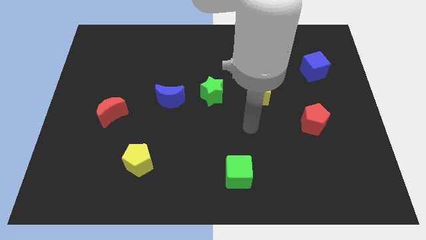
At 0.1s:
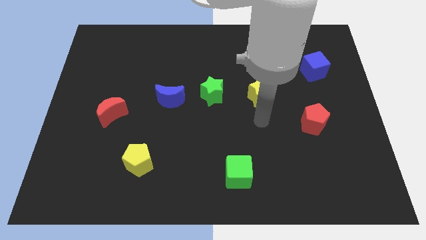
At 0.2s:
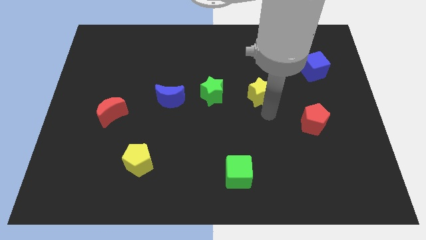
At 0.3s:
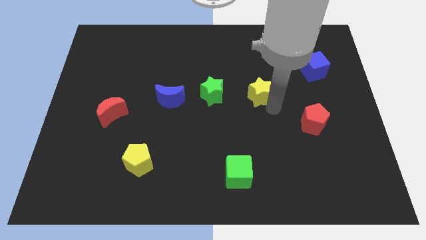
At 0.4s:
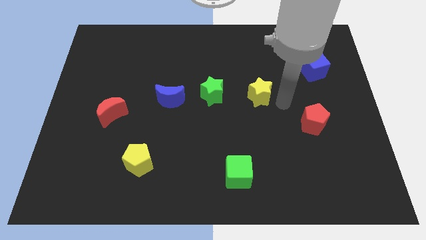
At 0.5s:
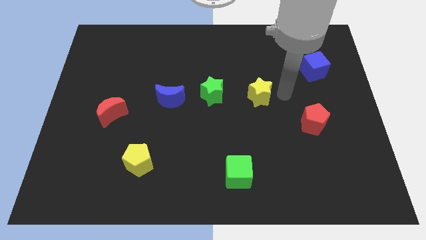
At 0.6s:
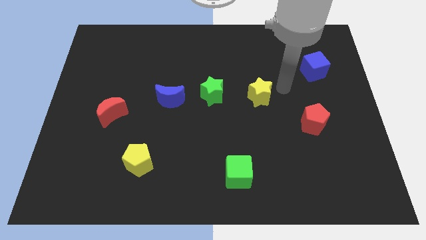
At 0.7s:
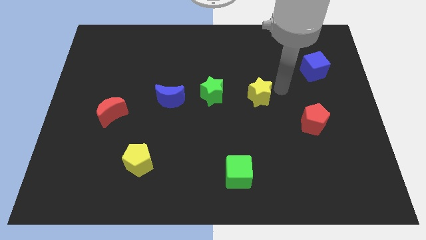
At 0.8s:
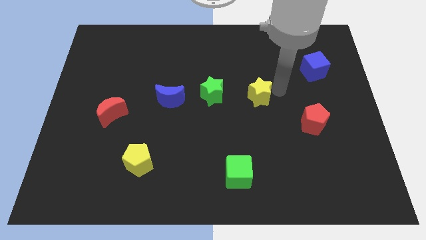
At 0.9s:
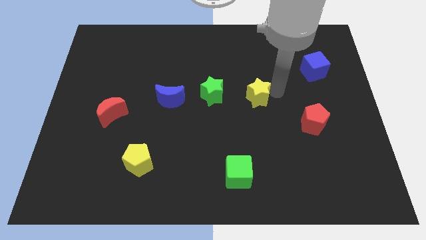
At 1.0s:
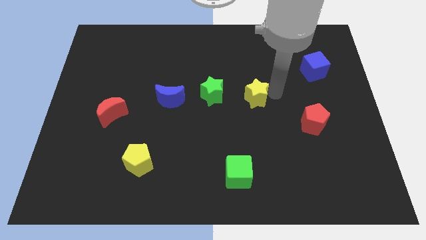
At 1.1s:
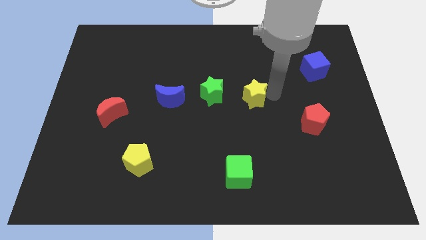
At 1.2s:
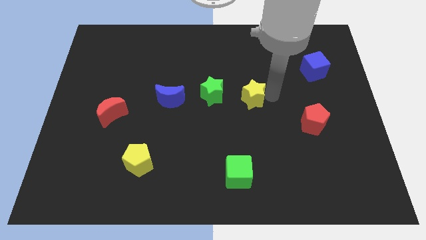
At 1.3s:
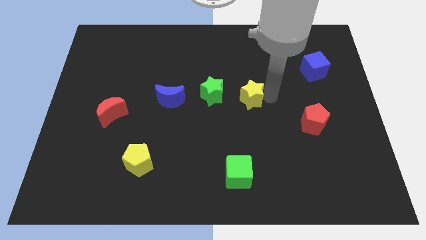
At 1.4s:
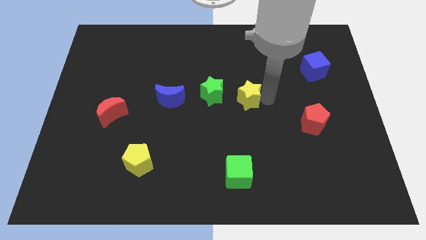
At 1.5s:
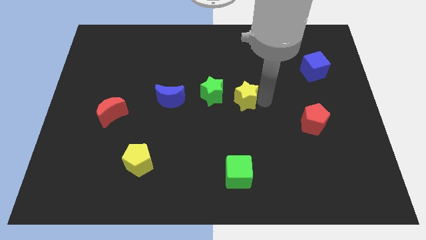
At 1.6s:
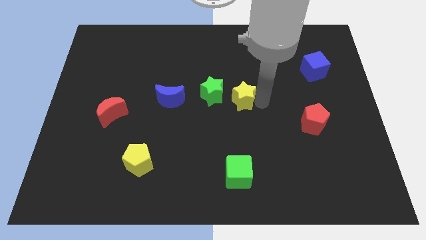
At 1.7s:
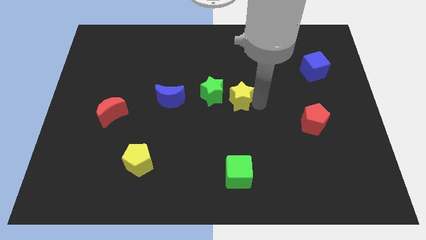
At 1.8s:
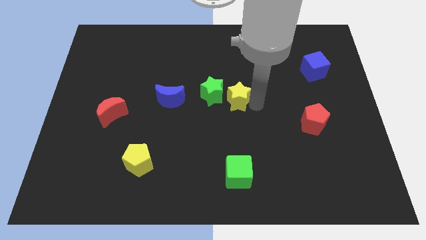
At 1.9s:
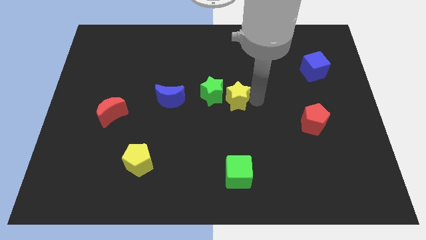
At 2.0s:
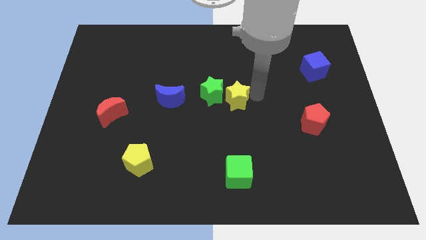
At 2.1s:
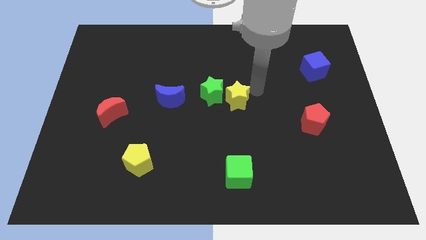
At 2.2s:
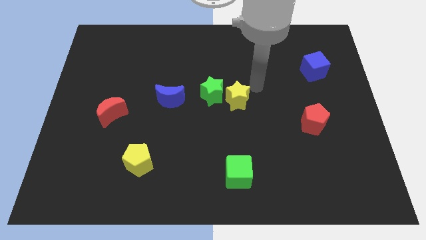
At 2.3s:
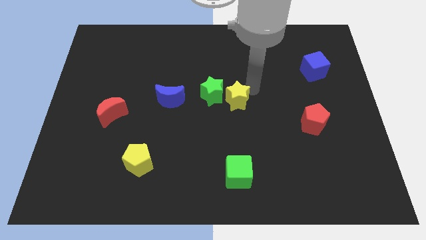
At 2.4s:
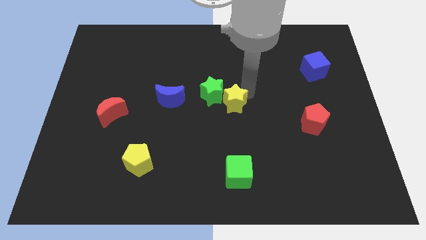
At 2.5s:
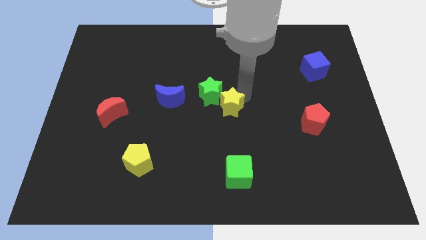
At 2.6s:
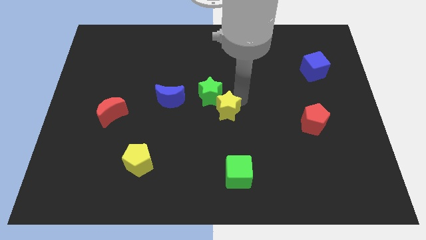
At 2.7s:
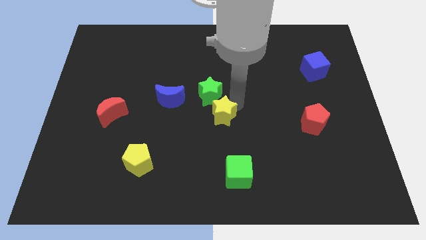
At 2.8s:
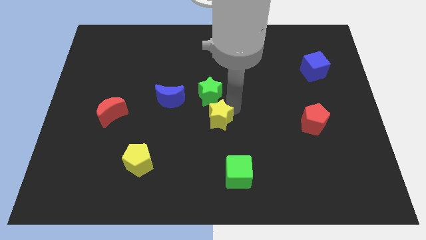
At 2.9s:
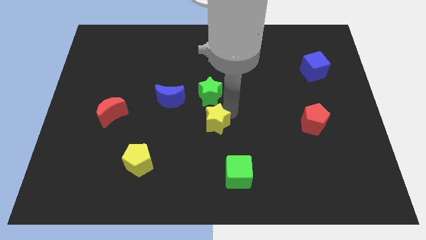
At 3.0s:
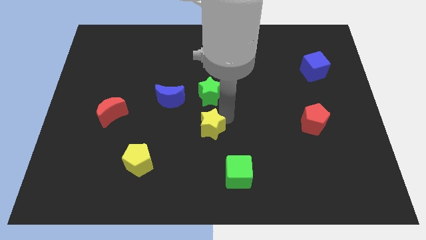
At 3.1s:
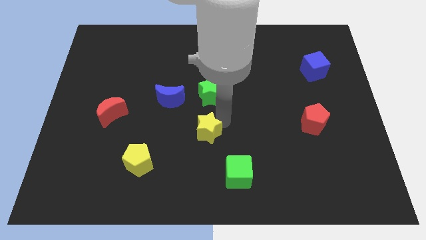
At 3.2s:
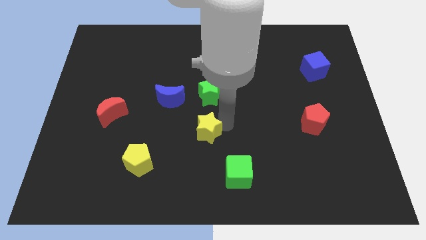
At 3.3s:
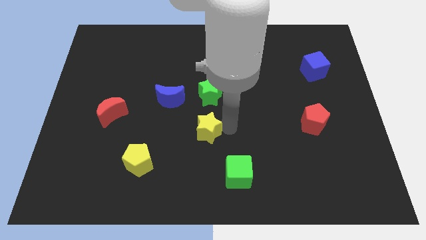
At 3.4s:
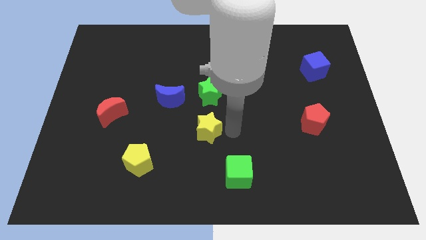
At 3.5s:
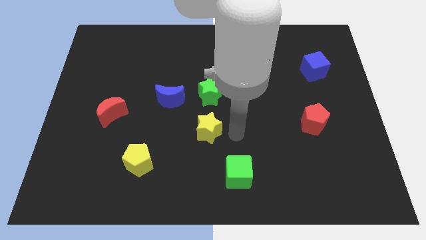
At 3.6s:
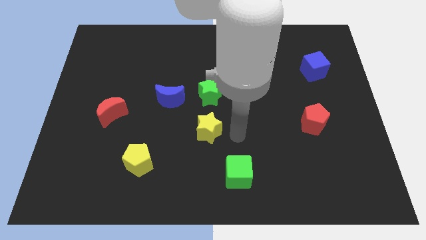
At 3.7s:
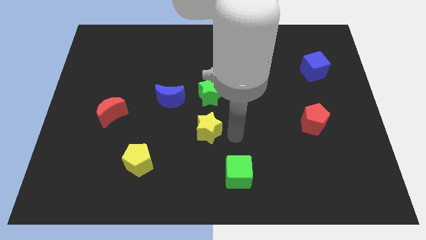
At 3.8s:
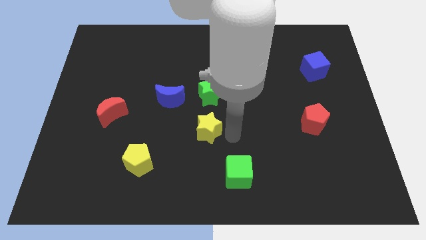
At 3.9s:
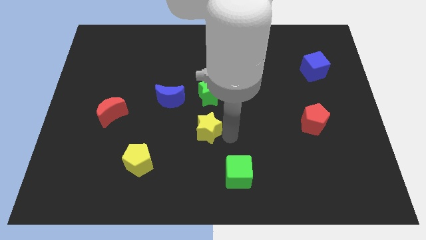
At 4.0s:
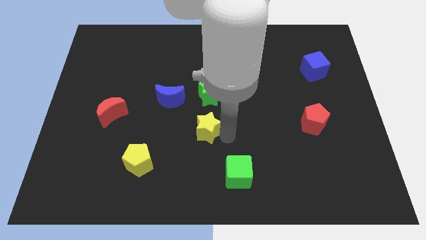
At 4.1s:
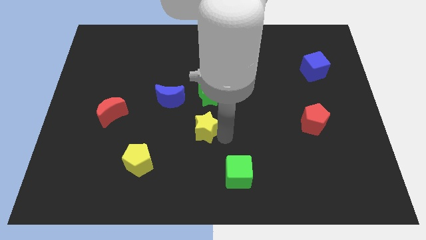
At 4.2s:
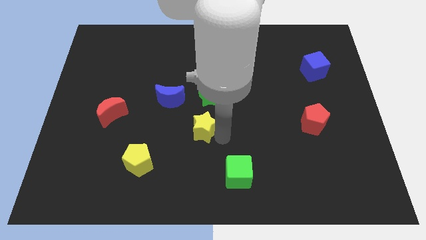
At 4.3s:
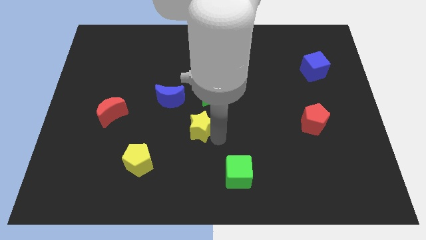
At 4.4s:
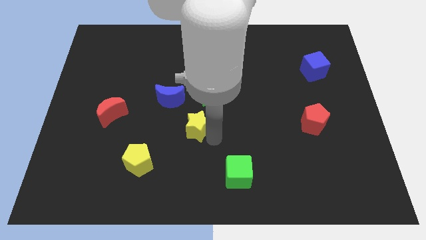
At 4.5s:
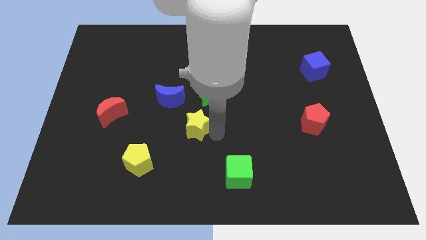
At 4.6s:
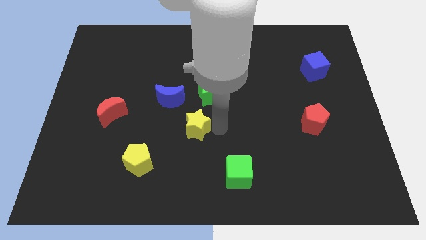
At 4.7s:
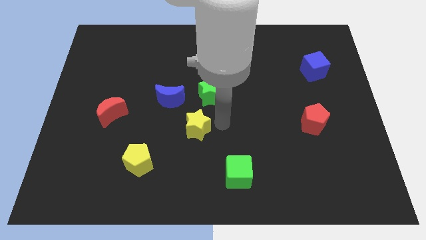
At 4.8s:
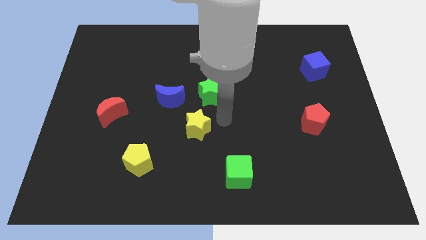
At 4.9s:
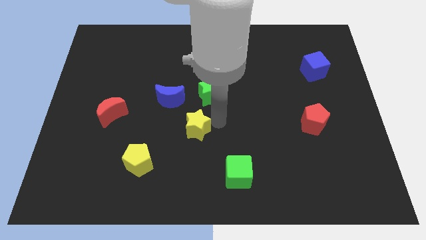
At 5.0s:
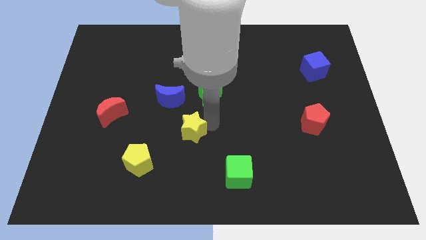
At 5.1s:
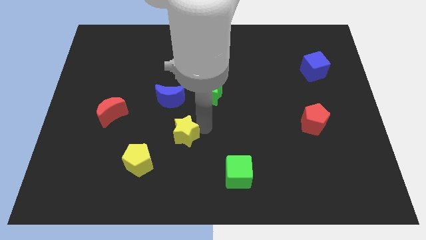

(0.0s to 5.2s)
move the yellow star to the top right of the yellow pentagon

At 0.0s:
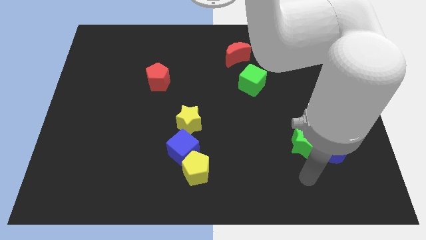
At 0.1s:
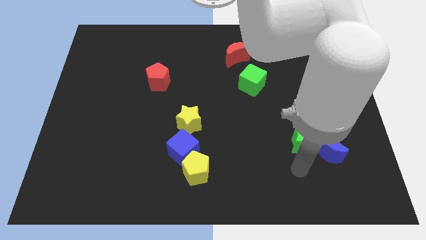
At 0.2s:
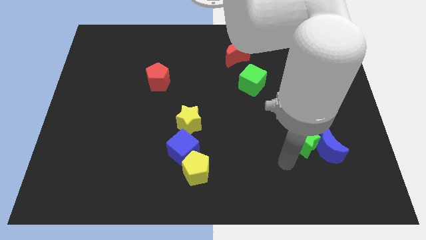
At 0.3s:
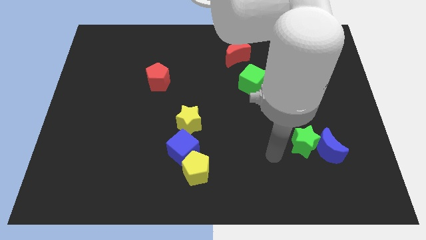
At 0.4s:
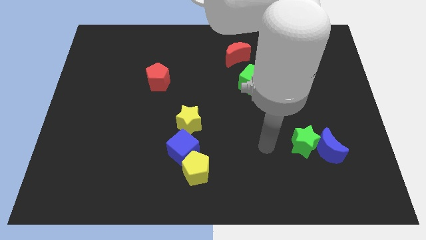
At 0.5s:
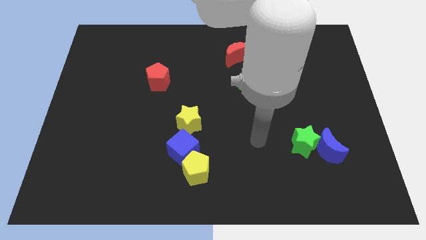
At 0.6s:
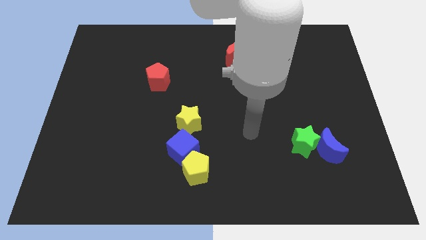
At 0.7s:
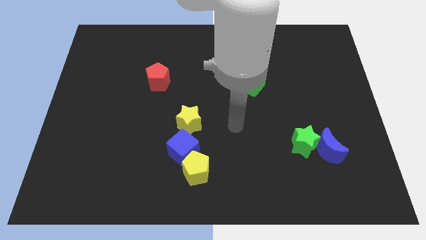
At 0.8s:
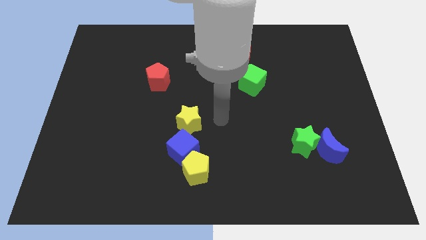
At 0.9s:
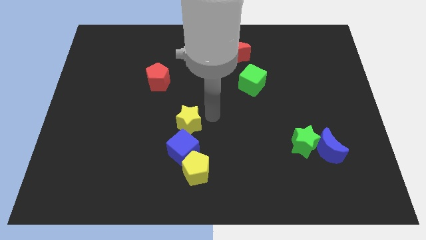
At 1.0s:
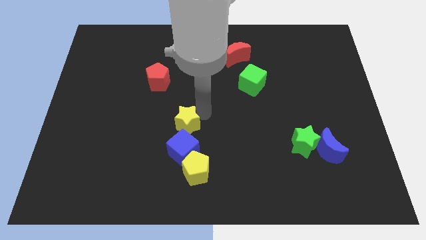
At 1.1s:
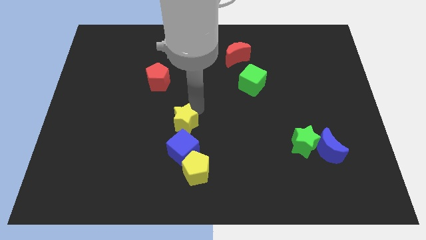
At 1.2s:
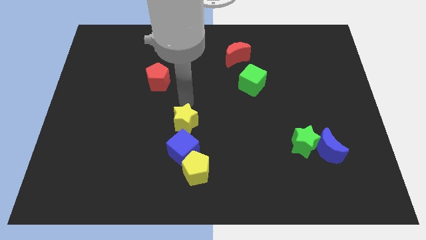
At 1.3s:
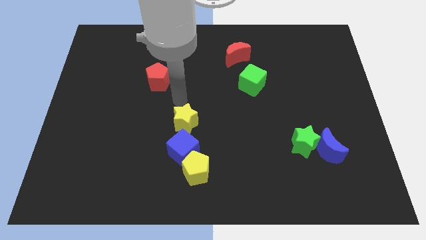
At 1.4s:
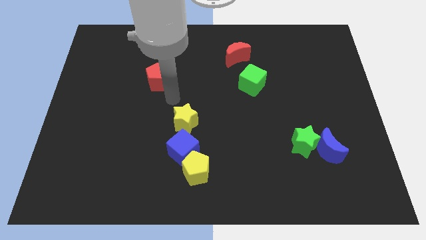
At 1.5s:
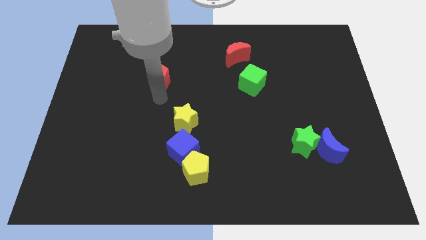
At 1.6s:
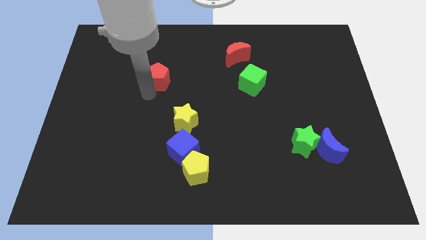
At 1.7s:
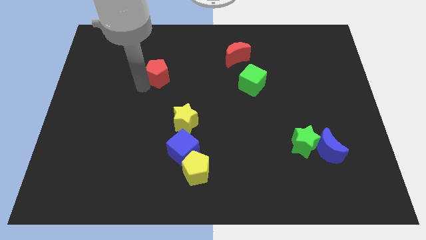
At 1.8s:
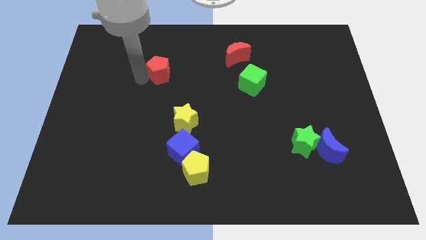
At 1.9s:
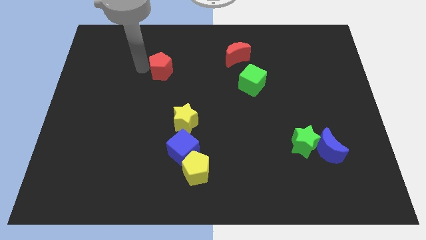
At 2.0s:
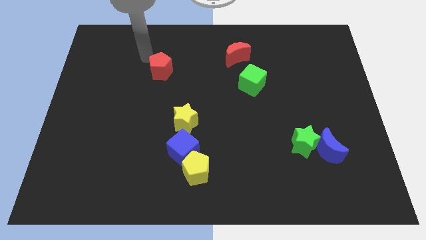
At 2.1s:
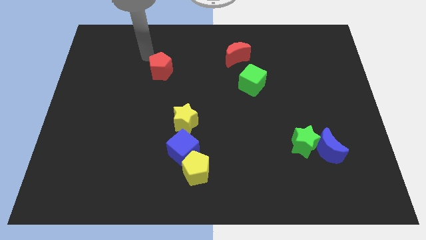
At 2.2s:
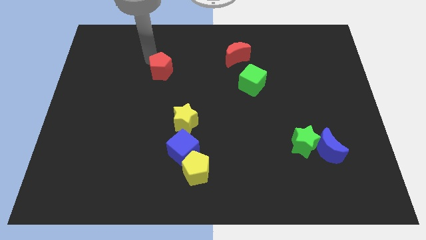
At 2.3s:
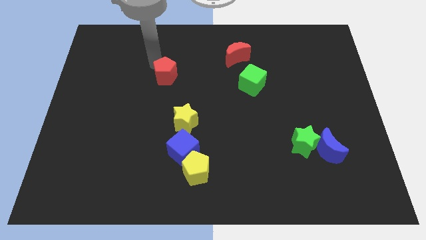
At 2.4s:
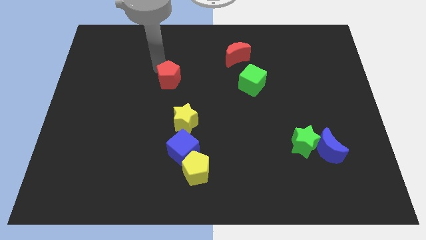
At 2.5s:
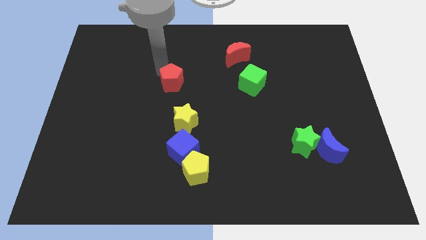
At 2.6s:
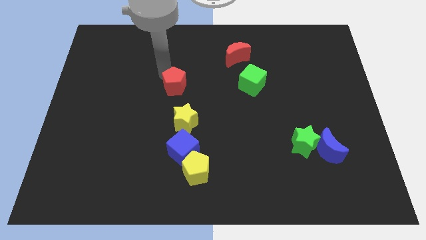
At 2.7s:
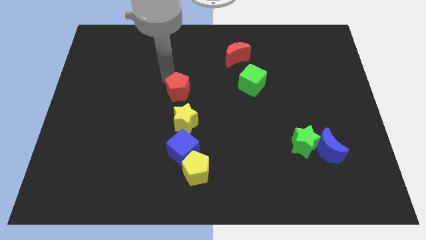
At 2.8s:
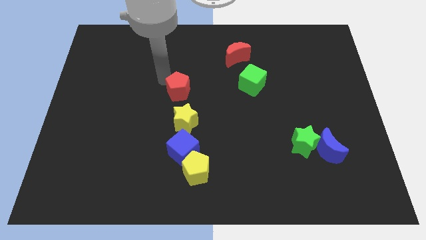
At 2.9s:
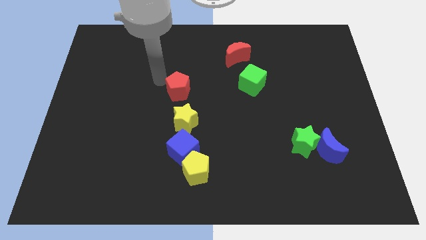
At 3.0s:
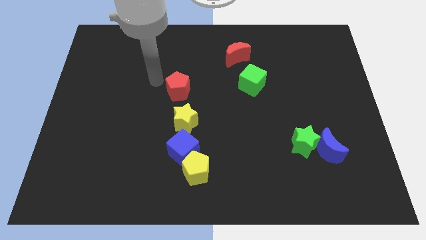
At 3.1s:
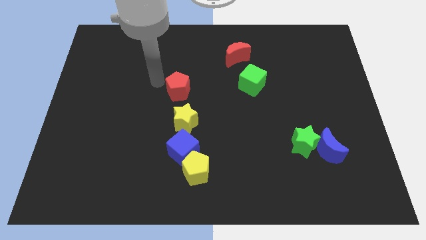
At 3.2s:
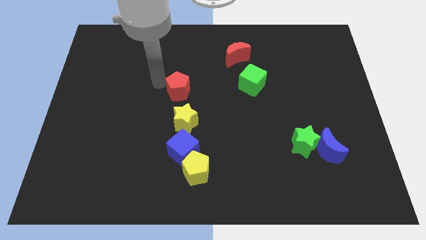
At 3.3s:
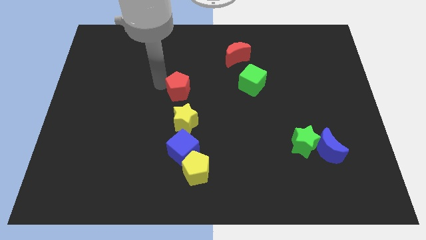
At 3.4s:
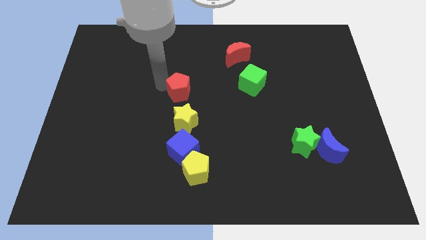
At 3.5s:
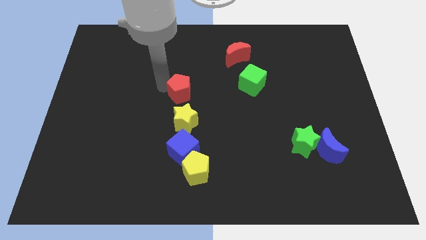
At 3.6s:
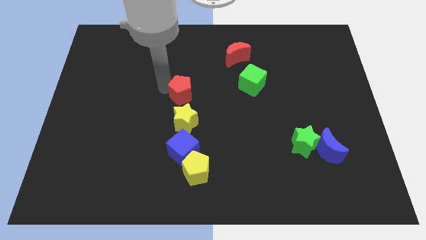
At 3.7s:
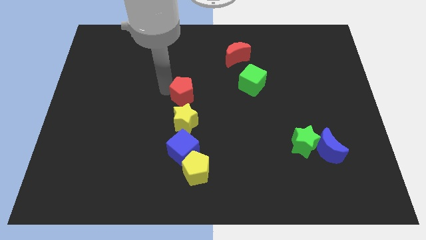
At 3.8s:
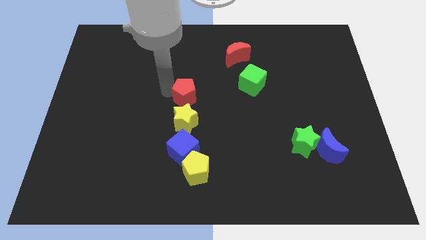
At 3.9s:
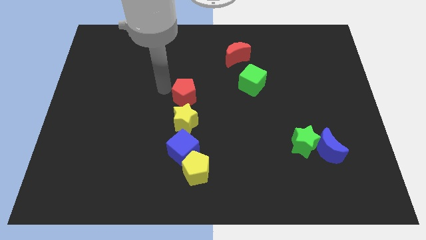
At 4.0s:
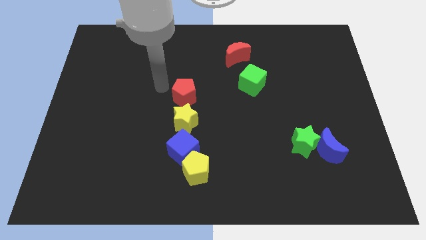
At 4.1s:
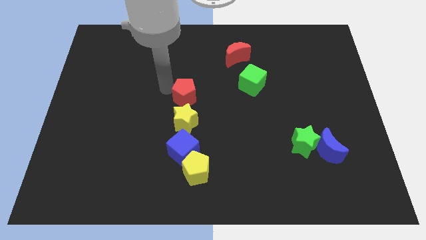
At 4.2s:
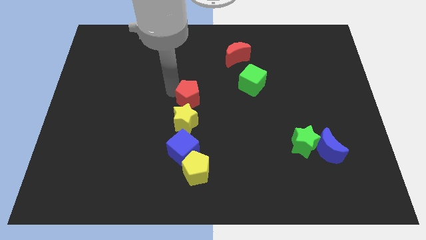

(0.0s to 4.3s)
slide the red pentagon diagonally up and to the right of the yellow star
